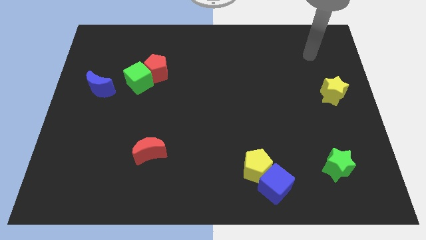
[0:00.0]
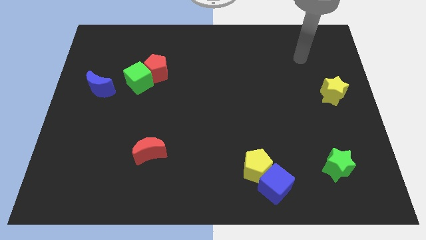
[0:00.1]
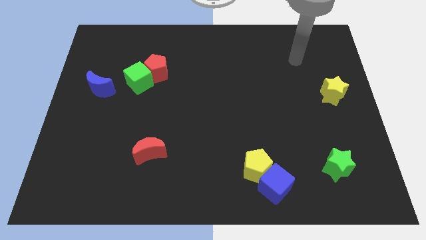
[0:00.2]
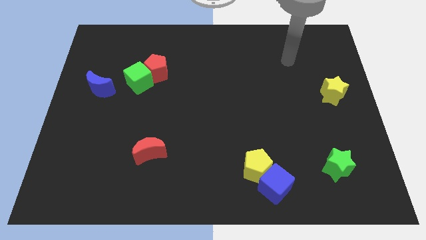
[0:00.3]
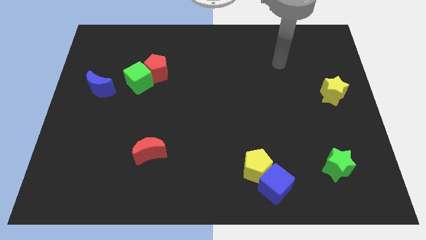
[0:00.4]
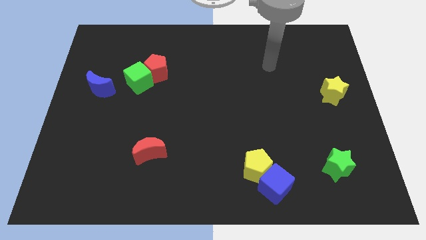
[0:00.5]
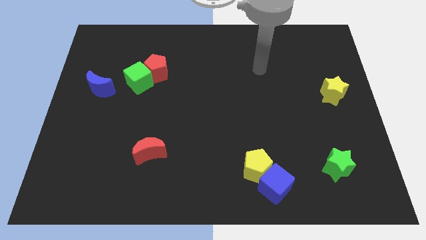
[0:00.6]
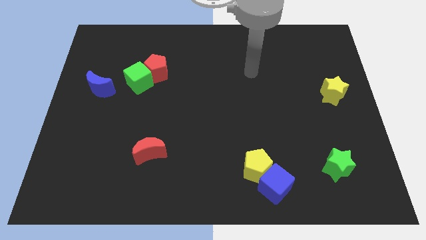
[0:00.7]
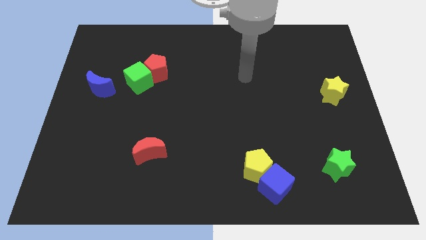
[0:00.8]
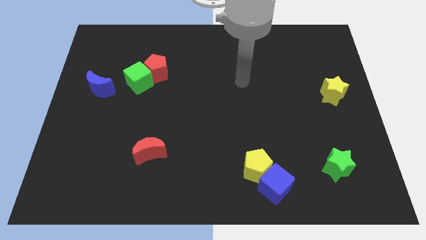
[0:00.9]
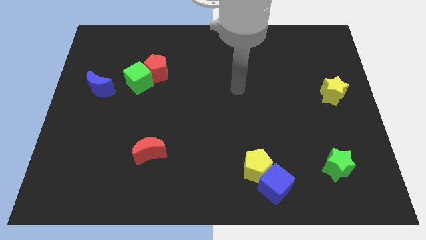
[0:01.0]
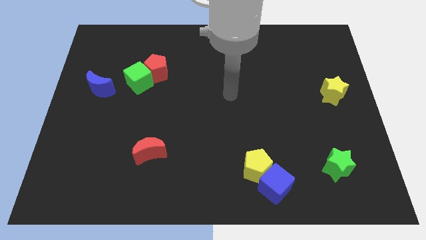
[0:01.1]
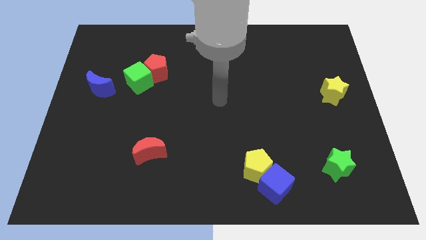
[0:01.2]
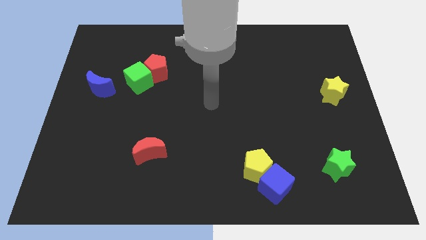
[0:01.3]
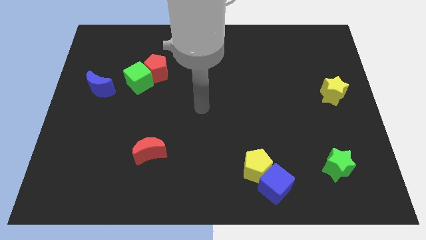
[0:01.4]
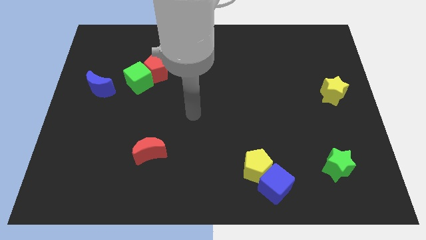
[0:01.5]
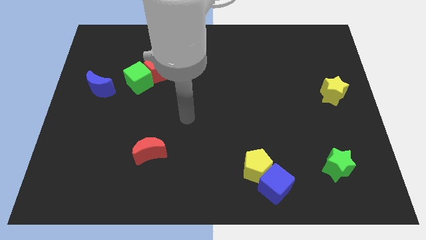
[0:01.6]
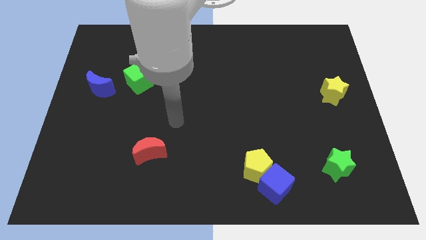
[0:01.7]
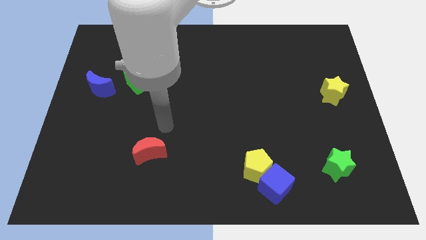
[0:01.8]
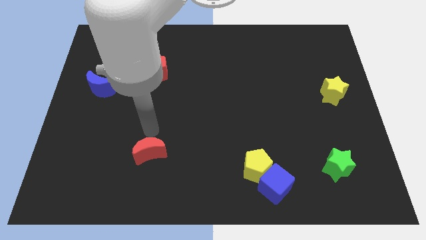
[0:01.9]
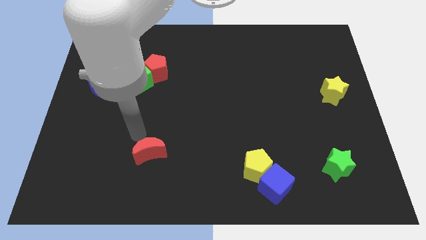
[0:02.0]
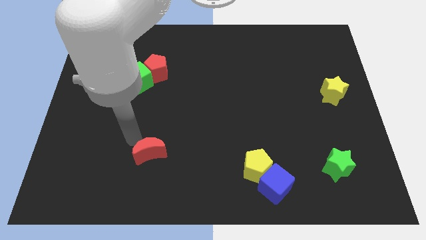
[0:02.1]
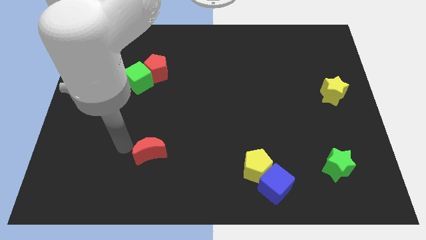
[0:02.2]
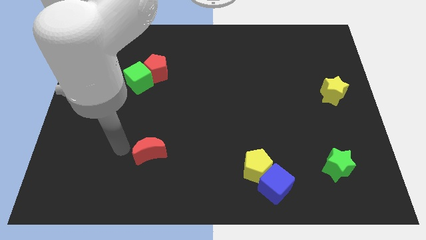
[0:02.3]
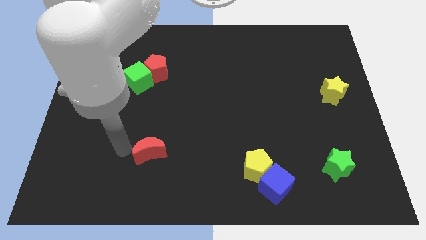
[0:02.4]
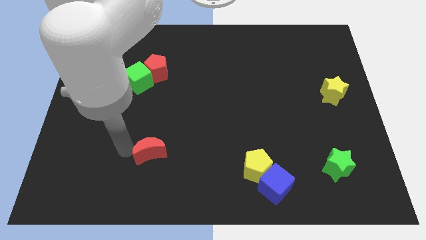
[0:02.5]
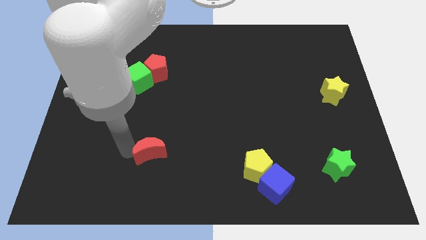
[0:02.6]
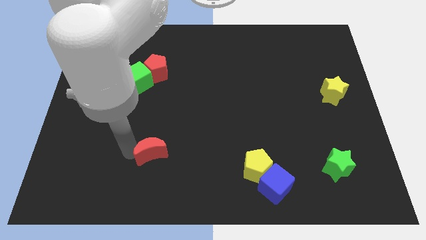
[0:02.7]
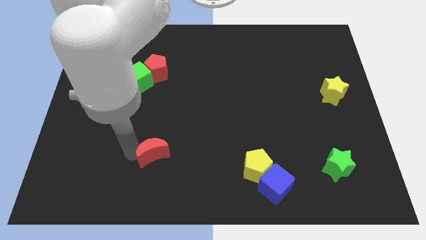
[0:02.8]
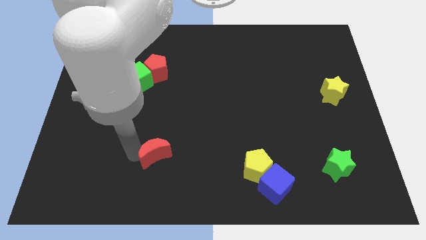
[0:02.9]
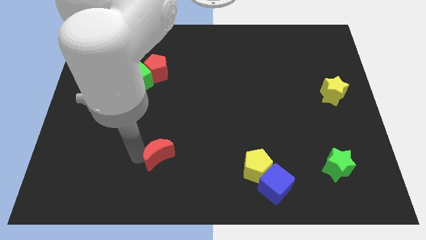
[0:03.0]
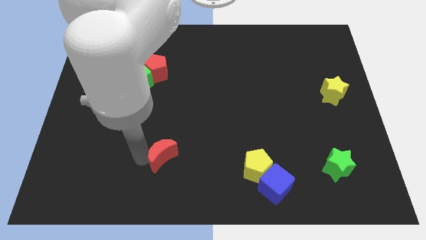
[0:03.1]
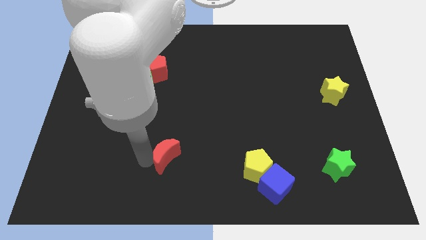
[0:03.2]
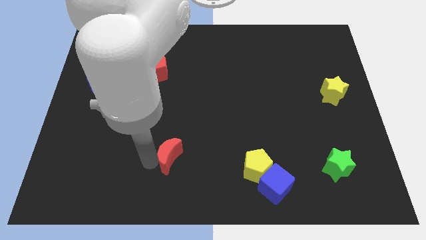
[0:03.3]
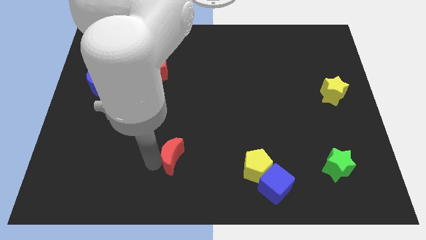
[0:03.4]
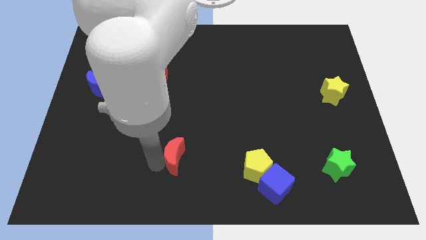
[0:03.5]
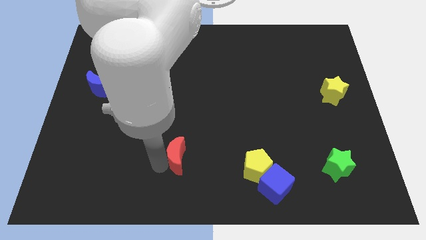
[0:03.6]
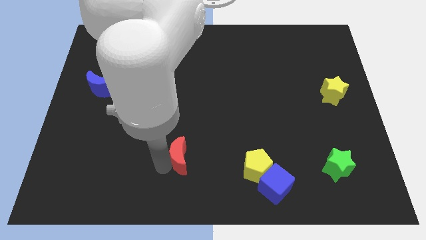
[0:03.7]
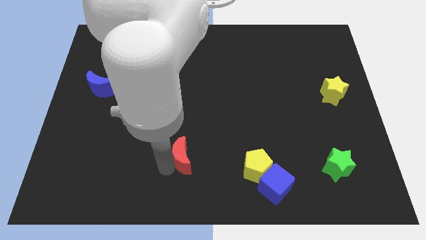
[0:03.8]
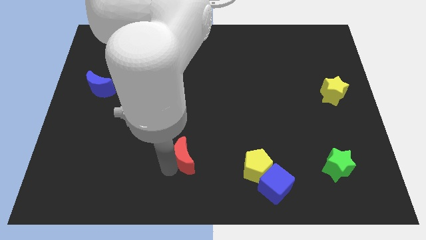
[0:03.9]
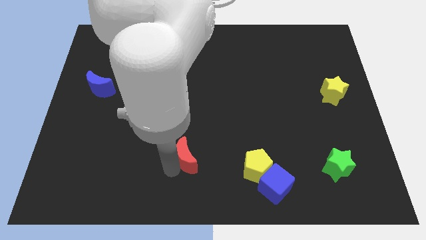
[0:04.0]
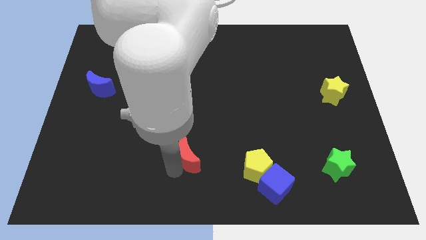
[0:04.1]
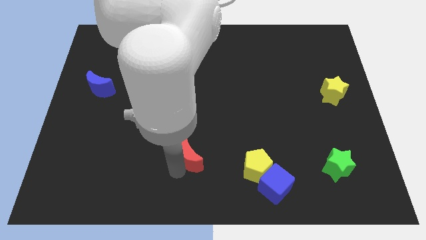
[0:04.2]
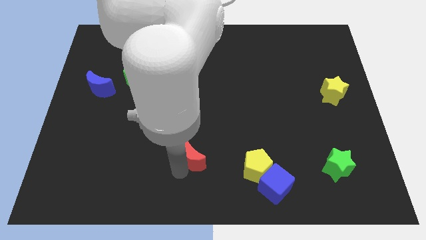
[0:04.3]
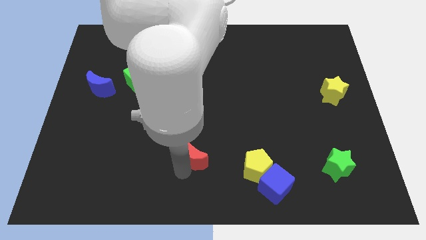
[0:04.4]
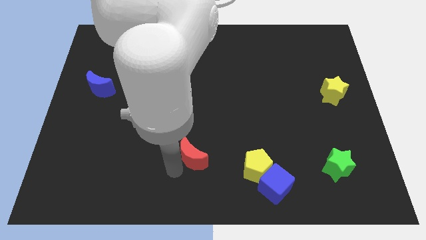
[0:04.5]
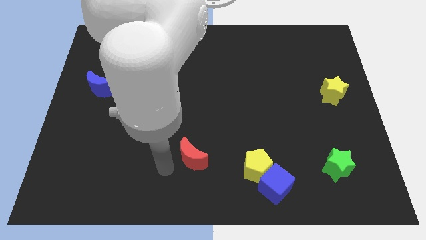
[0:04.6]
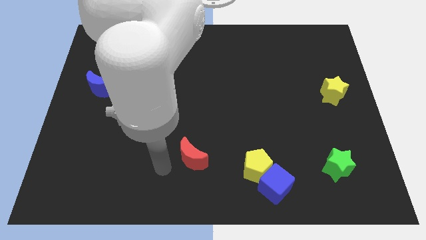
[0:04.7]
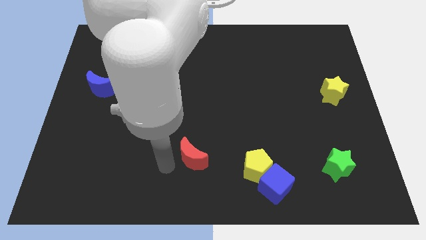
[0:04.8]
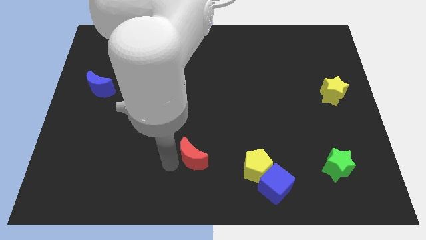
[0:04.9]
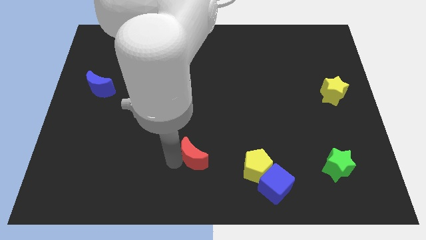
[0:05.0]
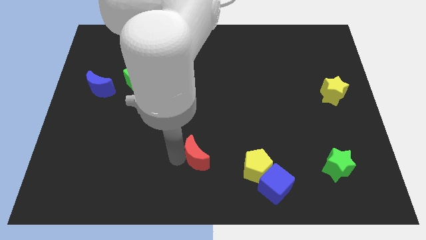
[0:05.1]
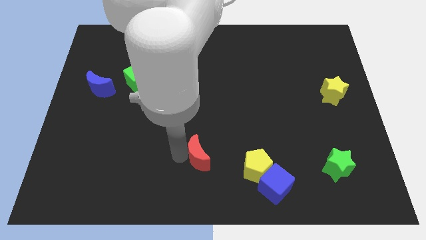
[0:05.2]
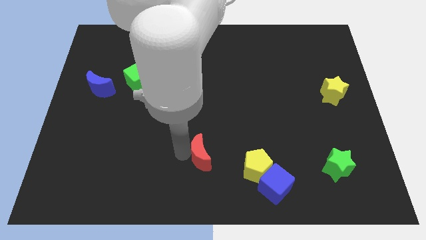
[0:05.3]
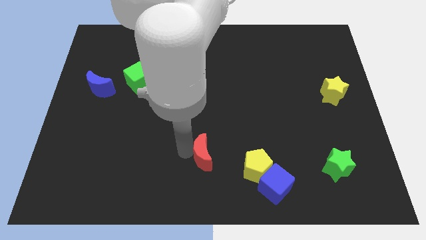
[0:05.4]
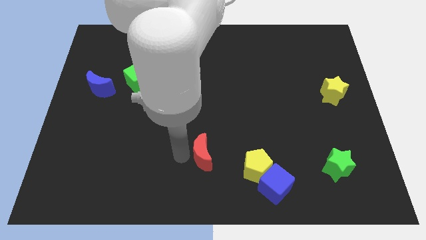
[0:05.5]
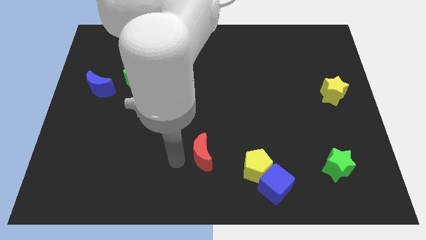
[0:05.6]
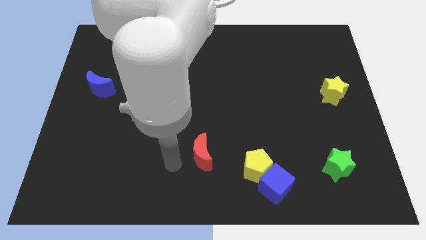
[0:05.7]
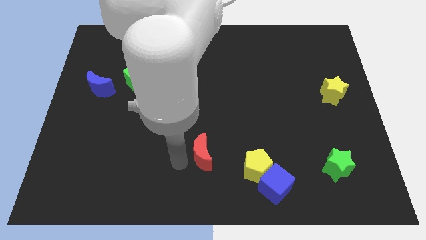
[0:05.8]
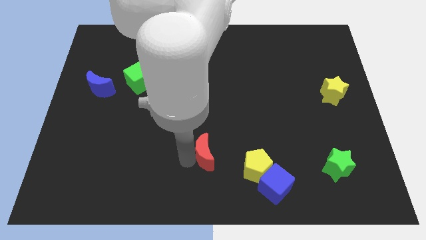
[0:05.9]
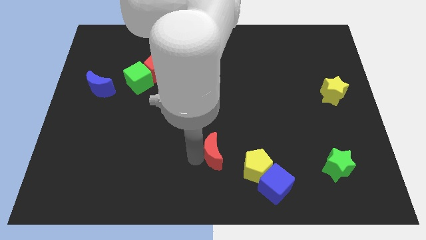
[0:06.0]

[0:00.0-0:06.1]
slide the red moon diagonally up and to the left of the yellow pentagon

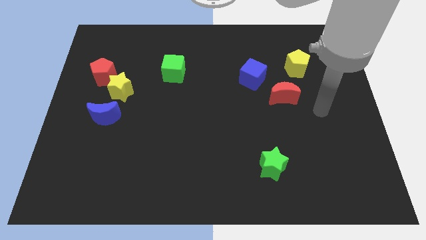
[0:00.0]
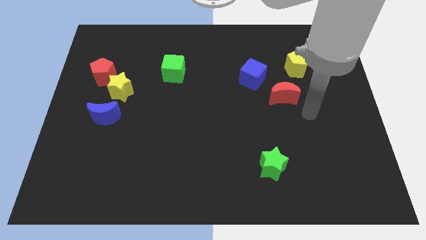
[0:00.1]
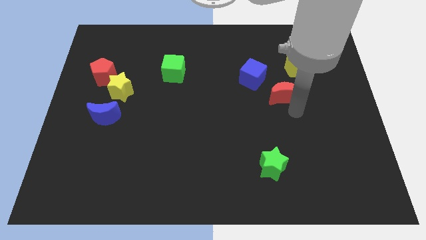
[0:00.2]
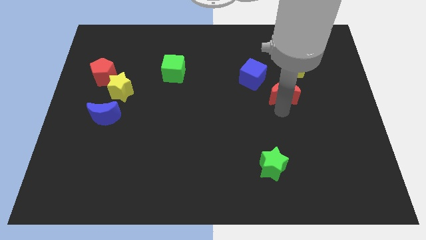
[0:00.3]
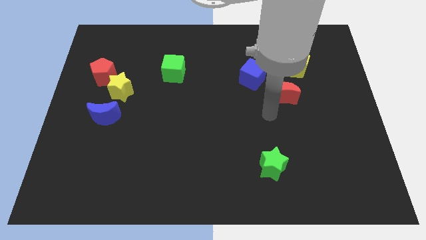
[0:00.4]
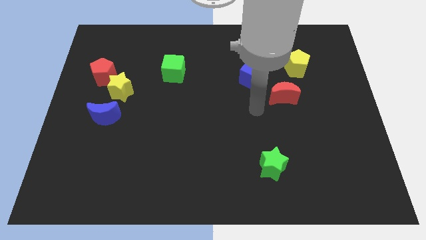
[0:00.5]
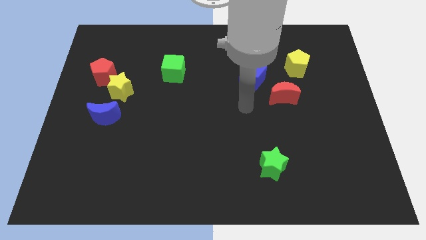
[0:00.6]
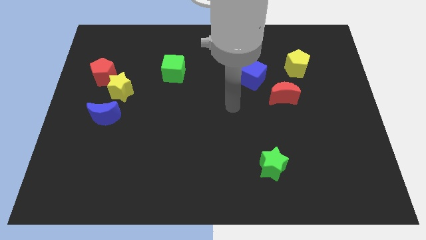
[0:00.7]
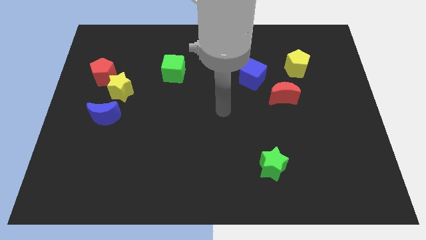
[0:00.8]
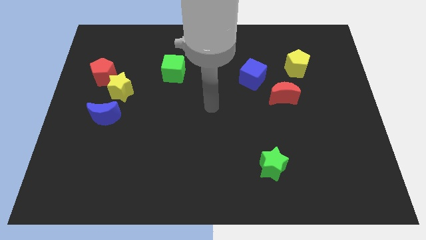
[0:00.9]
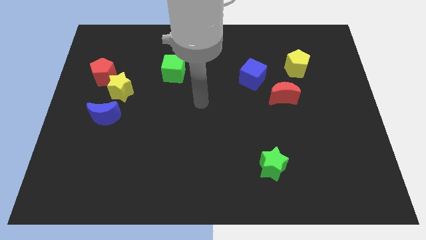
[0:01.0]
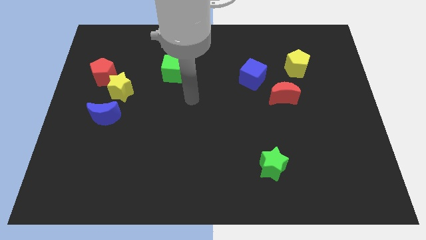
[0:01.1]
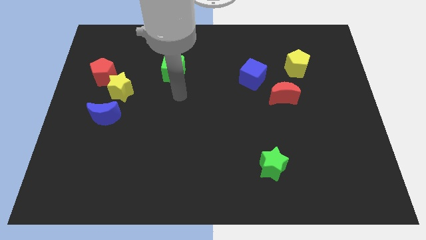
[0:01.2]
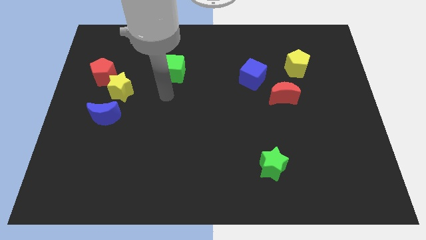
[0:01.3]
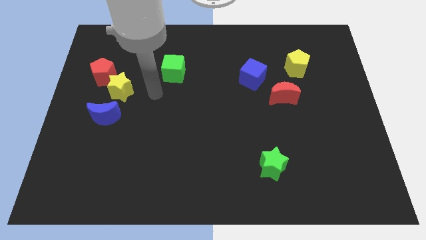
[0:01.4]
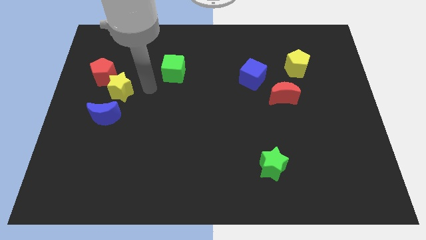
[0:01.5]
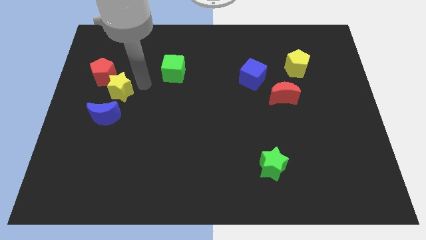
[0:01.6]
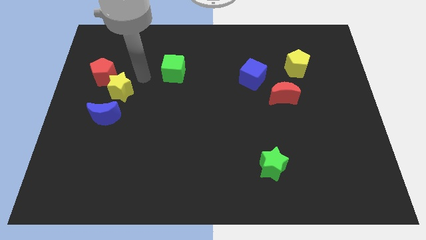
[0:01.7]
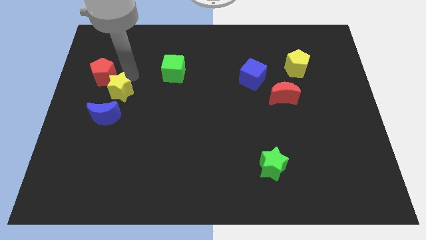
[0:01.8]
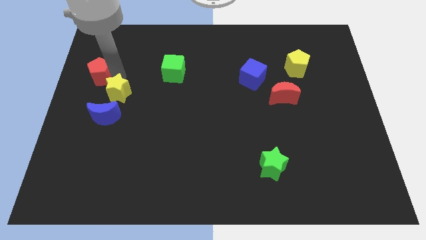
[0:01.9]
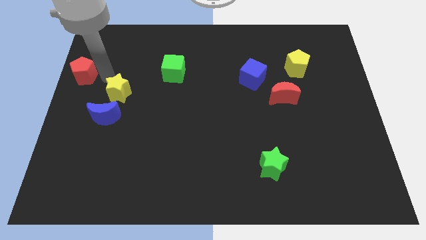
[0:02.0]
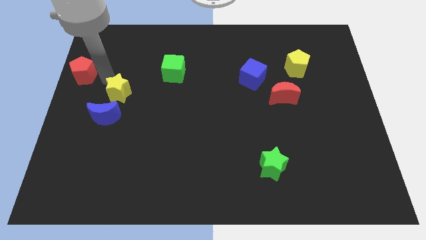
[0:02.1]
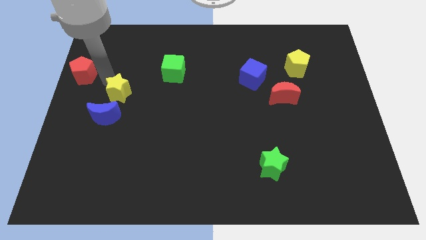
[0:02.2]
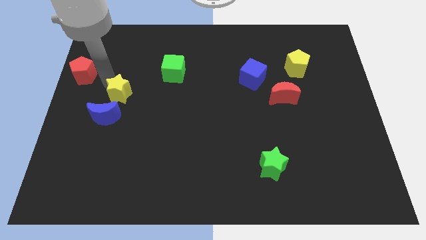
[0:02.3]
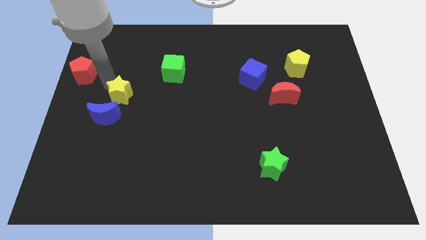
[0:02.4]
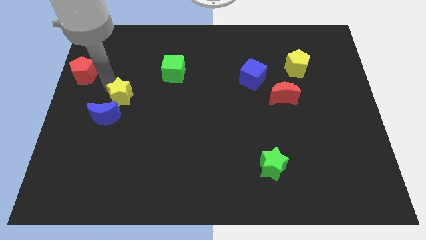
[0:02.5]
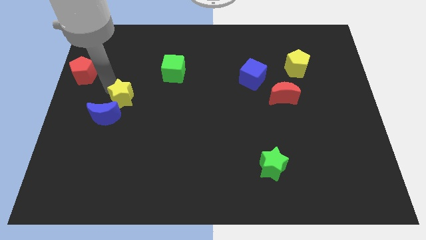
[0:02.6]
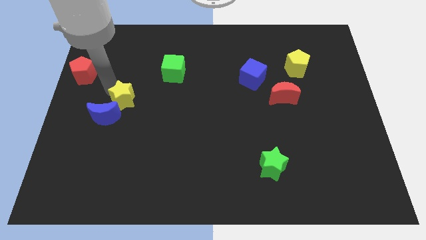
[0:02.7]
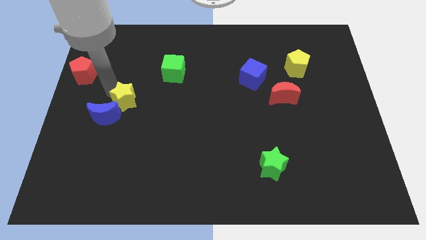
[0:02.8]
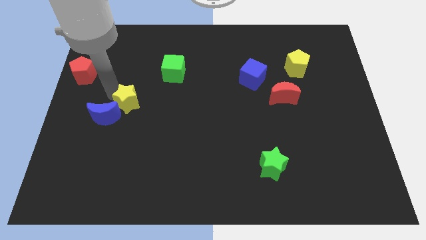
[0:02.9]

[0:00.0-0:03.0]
put the yellow star right of the blue moon
